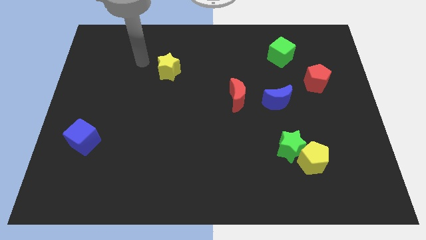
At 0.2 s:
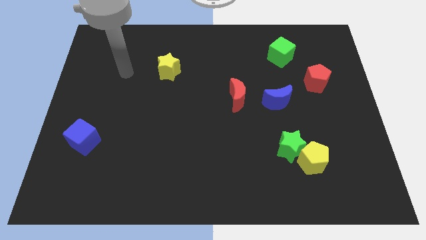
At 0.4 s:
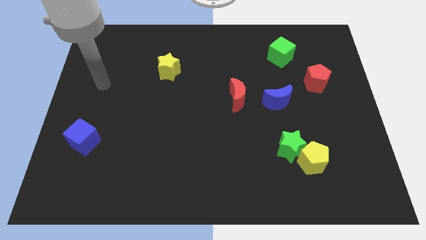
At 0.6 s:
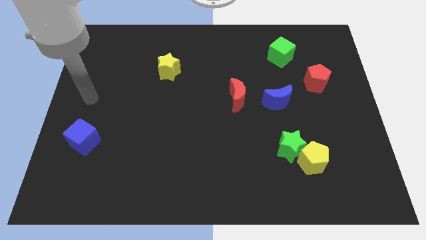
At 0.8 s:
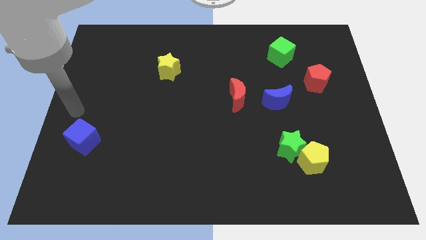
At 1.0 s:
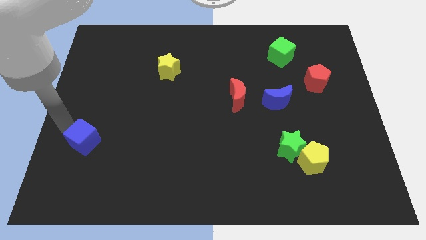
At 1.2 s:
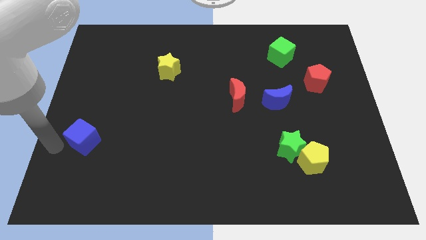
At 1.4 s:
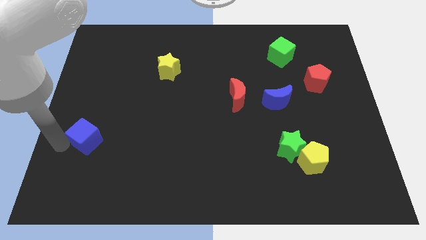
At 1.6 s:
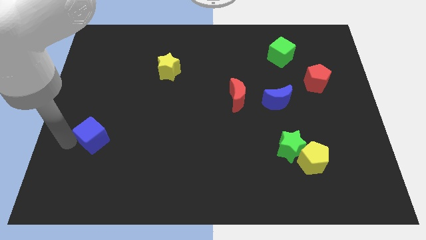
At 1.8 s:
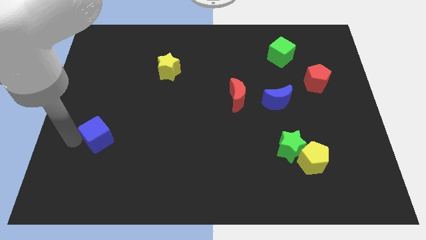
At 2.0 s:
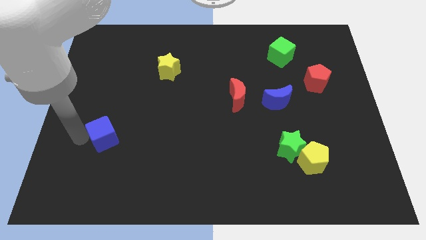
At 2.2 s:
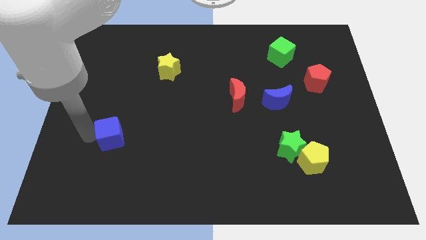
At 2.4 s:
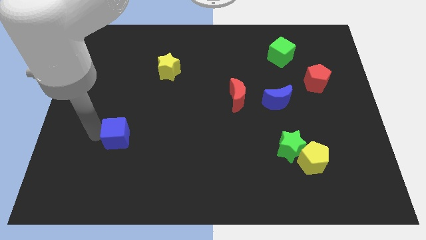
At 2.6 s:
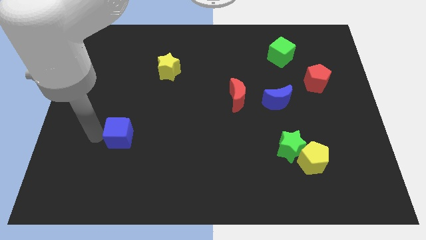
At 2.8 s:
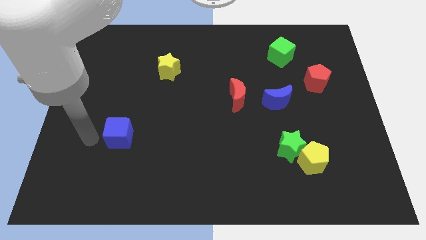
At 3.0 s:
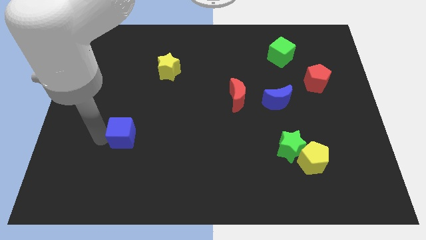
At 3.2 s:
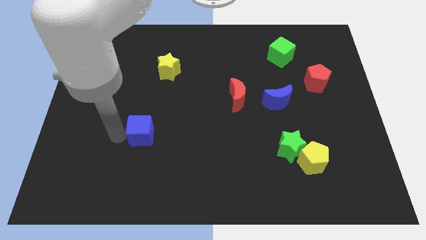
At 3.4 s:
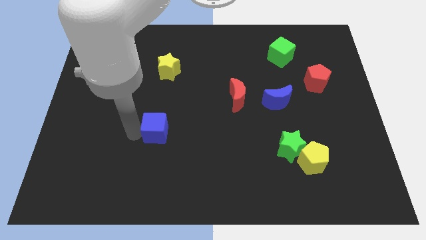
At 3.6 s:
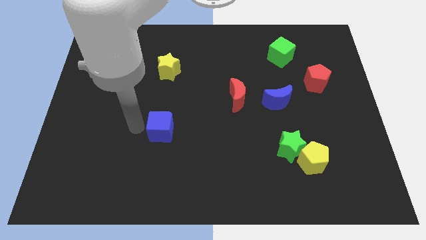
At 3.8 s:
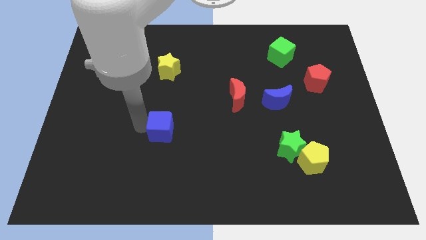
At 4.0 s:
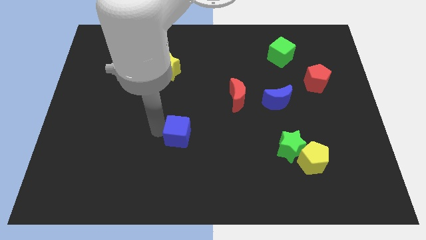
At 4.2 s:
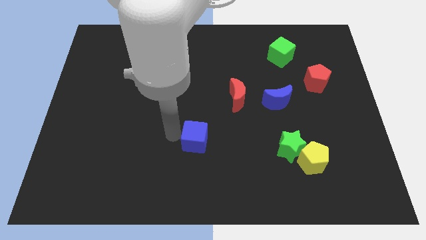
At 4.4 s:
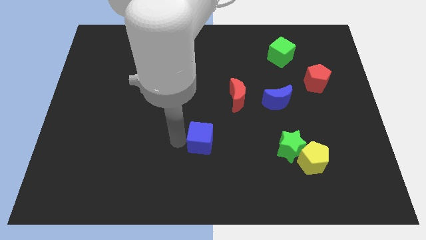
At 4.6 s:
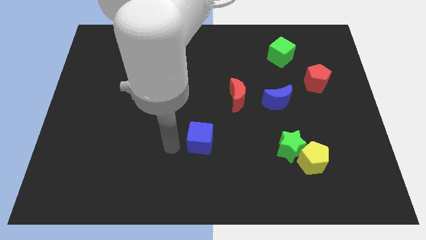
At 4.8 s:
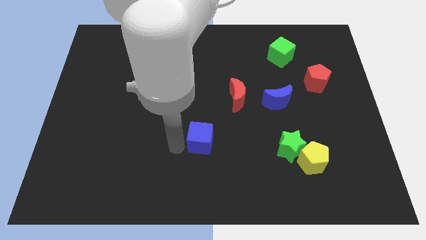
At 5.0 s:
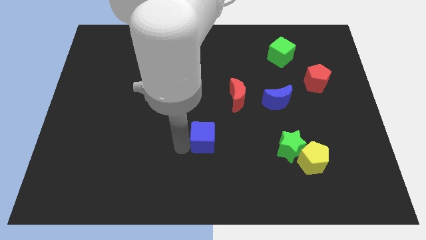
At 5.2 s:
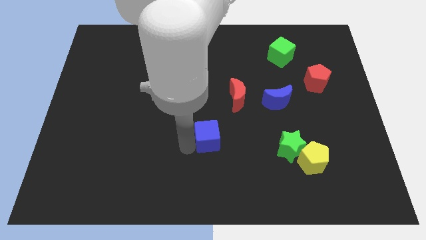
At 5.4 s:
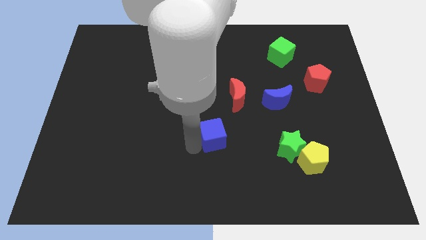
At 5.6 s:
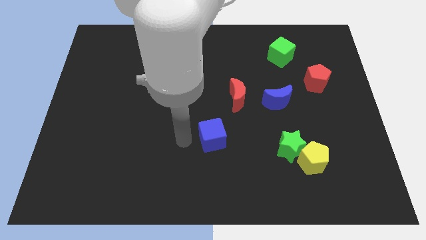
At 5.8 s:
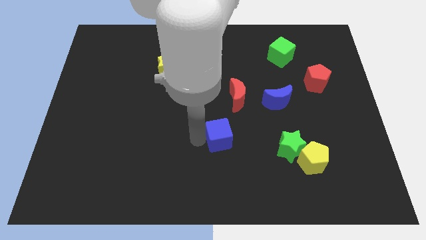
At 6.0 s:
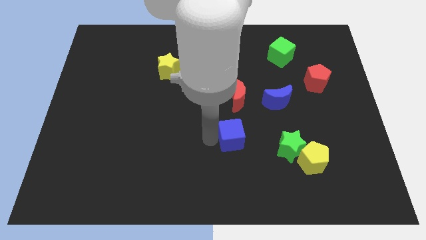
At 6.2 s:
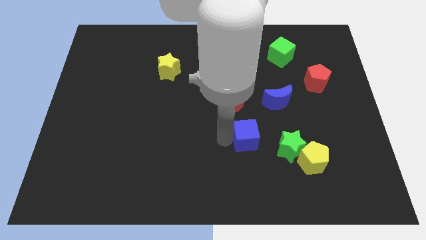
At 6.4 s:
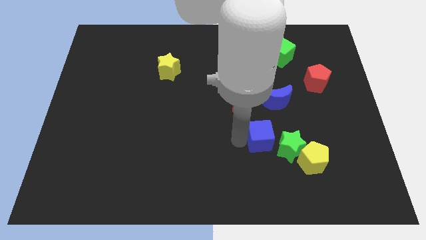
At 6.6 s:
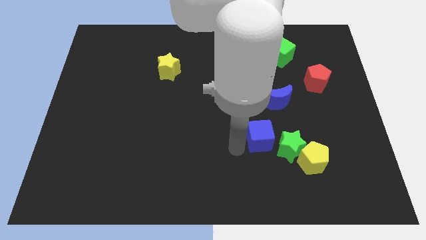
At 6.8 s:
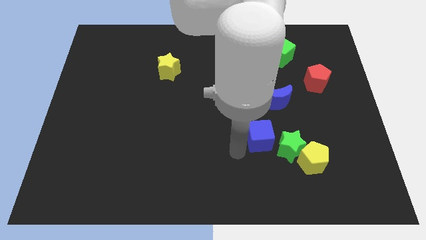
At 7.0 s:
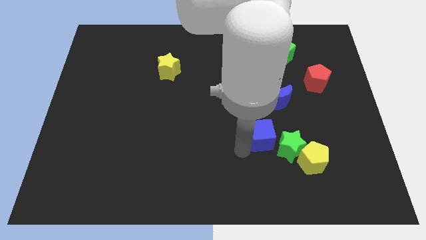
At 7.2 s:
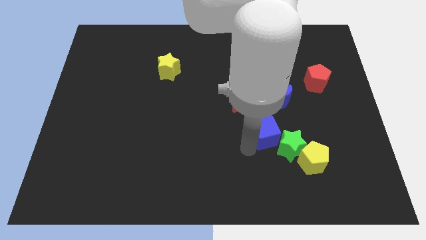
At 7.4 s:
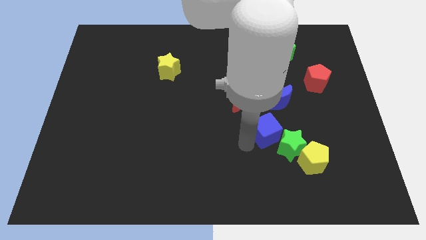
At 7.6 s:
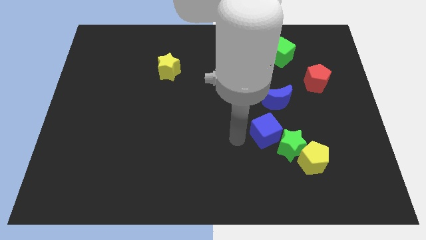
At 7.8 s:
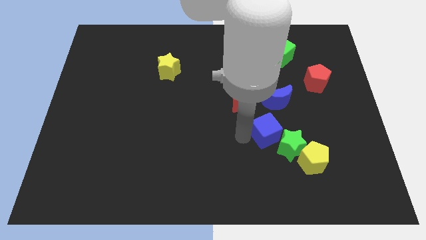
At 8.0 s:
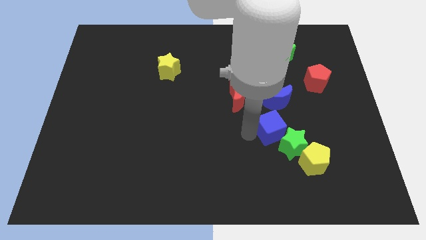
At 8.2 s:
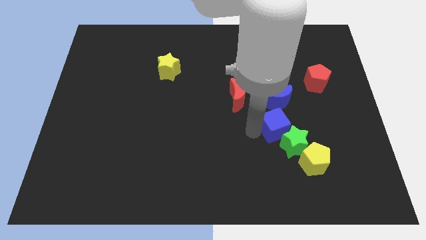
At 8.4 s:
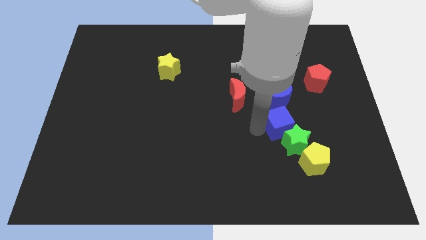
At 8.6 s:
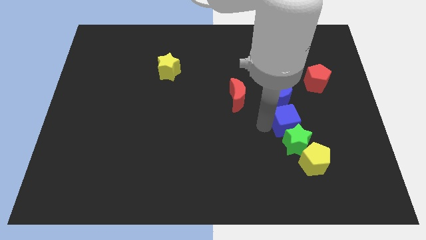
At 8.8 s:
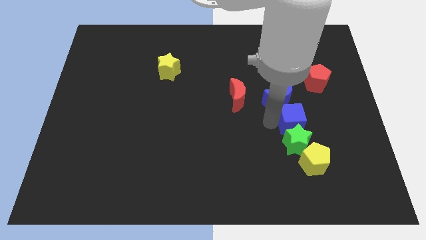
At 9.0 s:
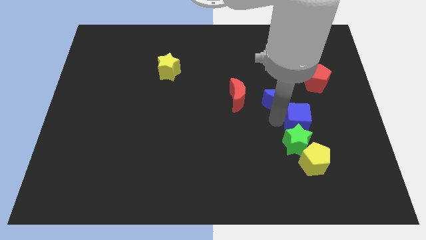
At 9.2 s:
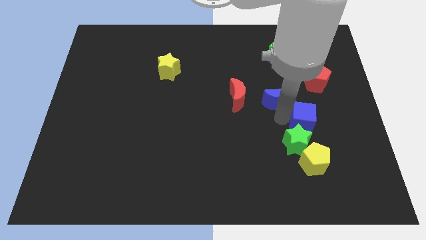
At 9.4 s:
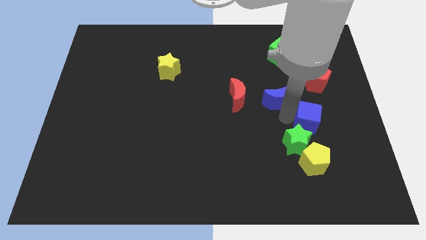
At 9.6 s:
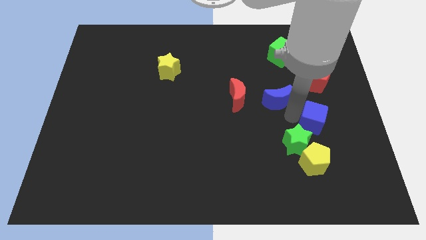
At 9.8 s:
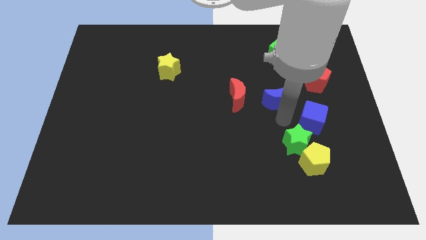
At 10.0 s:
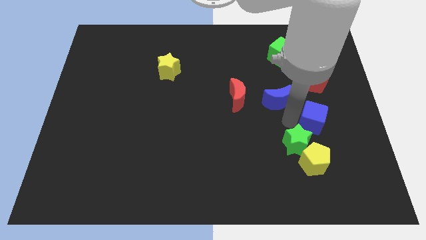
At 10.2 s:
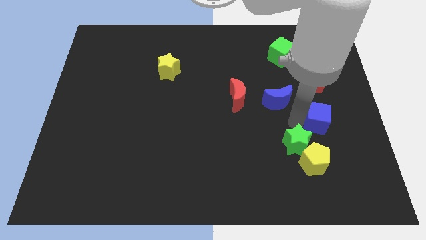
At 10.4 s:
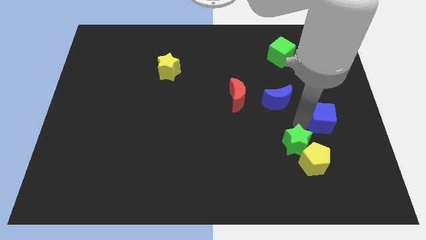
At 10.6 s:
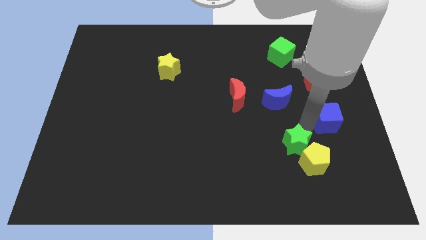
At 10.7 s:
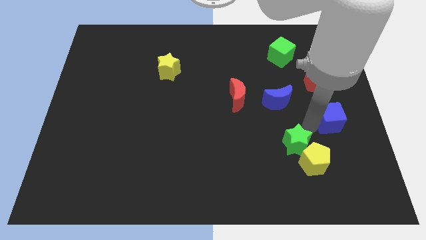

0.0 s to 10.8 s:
put the blue cube to the center right

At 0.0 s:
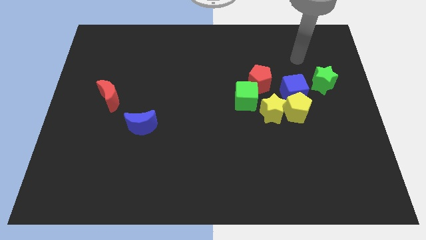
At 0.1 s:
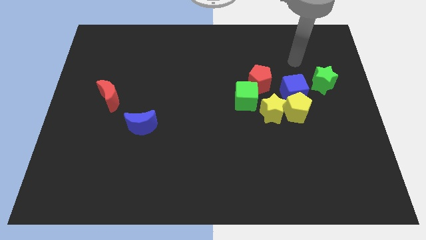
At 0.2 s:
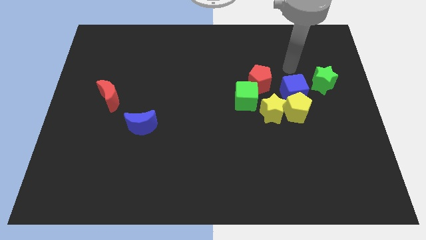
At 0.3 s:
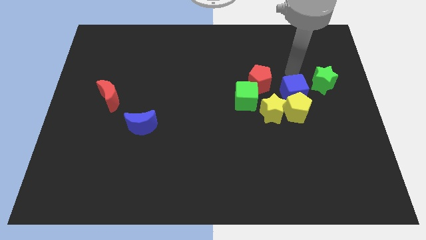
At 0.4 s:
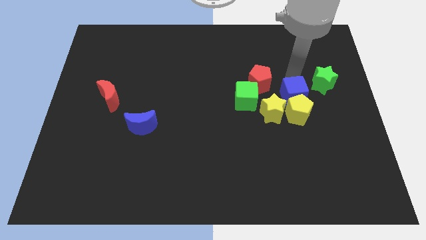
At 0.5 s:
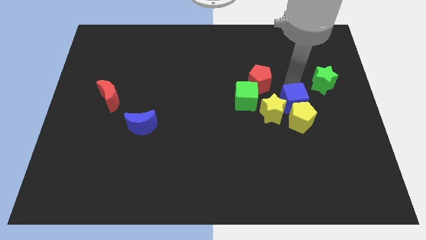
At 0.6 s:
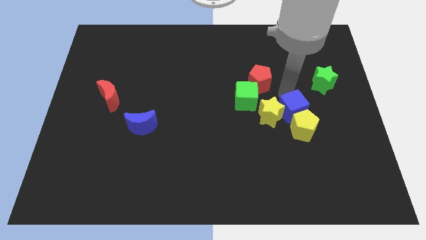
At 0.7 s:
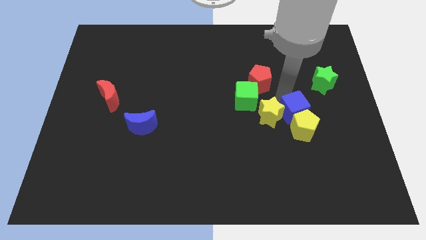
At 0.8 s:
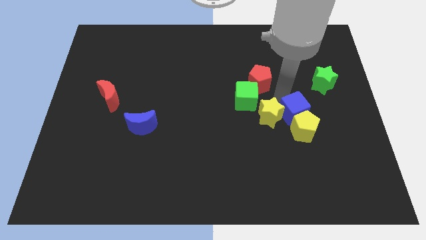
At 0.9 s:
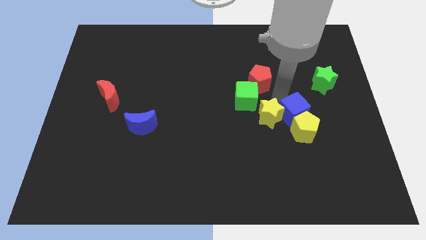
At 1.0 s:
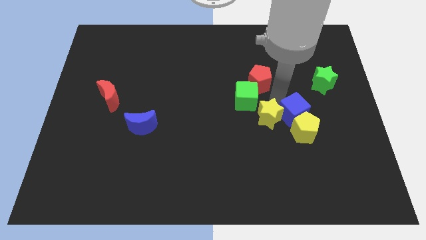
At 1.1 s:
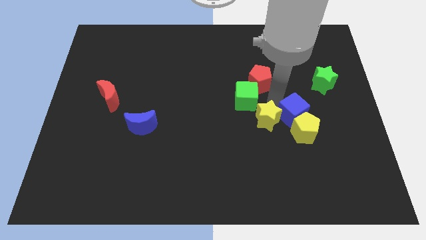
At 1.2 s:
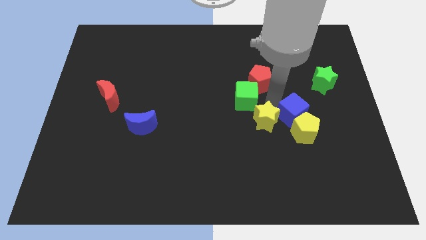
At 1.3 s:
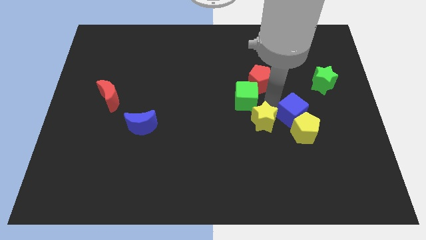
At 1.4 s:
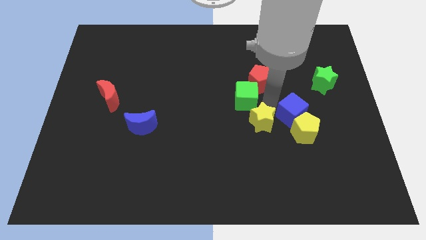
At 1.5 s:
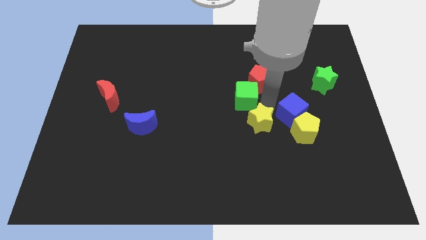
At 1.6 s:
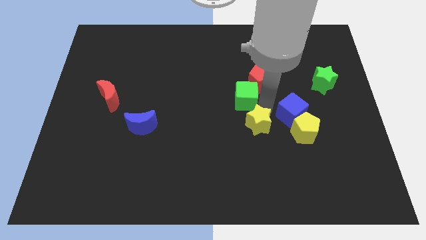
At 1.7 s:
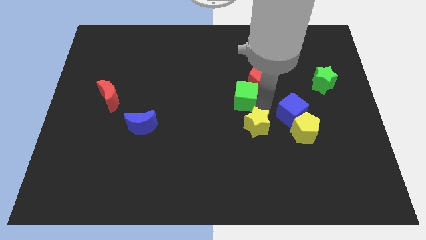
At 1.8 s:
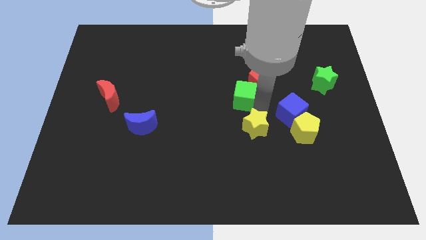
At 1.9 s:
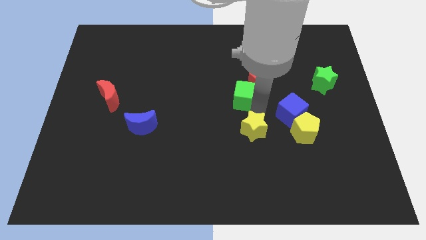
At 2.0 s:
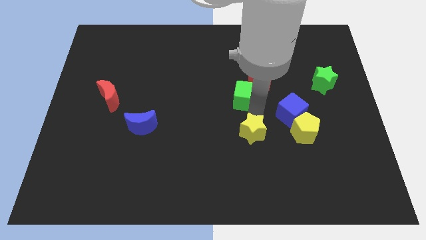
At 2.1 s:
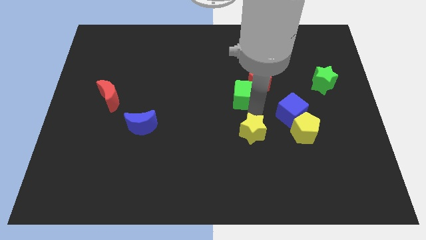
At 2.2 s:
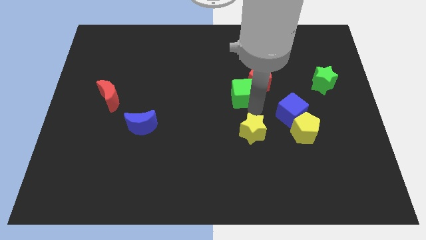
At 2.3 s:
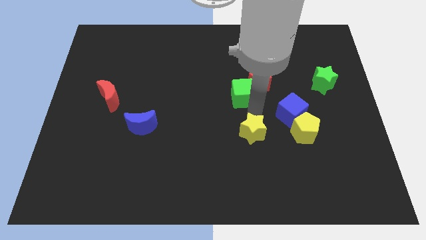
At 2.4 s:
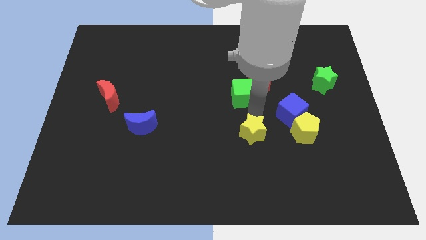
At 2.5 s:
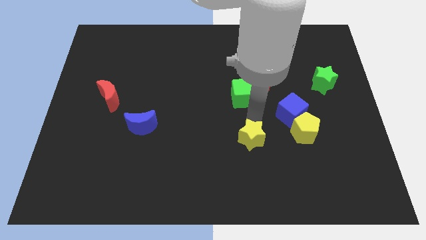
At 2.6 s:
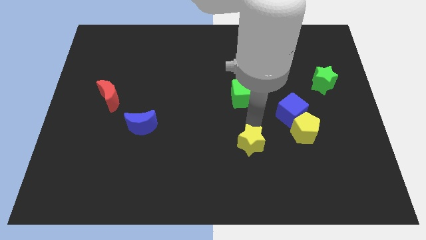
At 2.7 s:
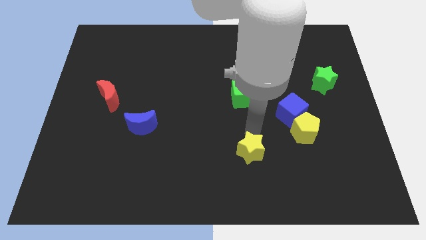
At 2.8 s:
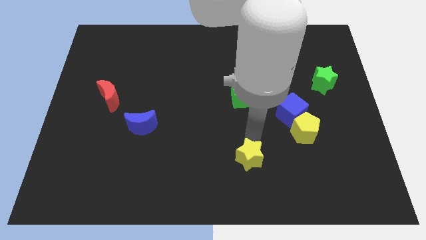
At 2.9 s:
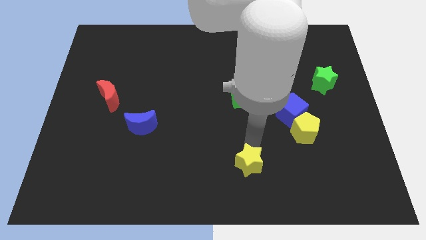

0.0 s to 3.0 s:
put the yellow star to the bottom
